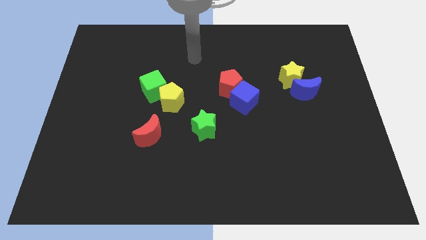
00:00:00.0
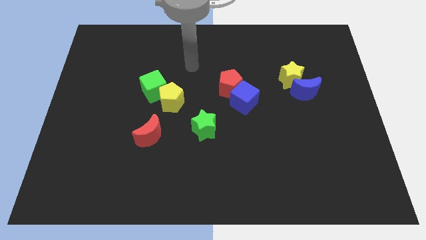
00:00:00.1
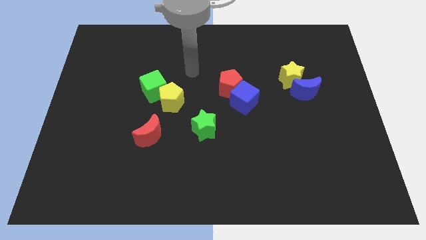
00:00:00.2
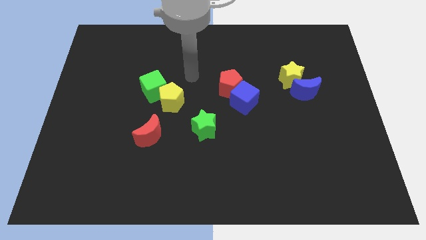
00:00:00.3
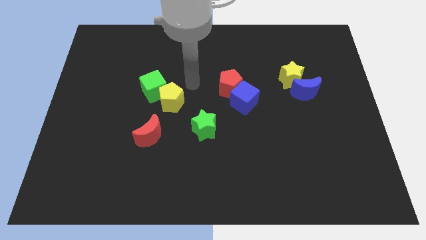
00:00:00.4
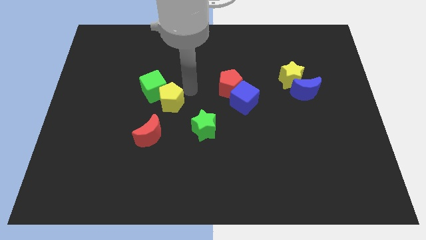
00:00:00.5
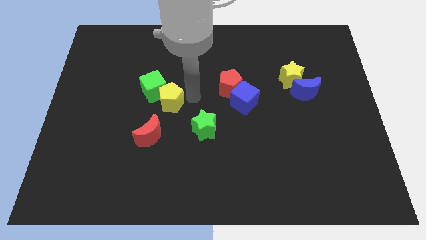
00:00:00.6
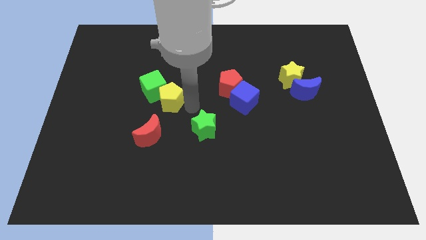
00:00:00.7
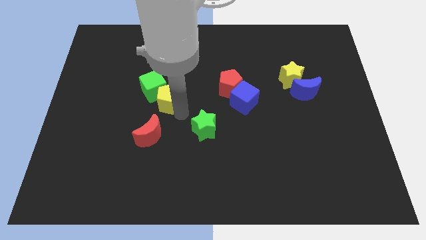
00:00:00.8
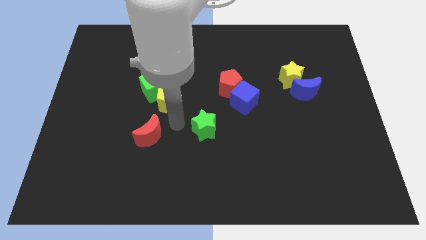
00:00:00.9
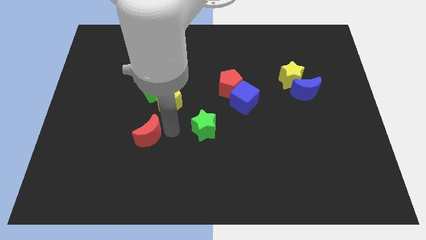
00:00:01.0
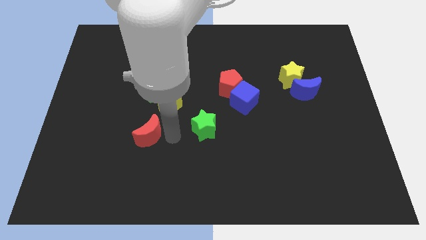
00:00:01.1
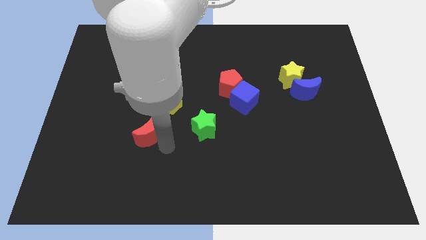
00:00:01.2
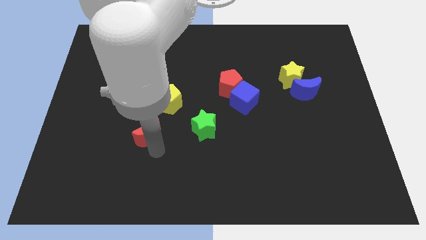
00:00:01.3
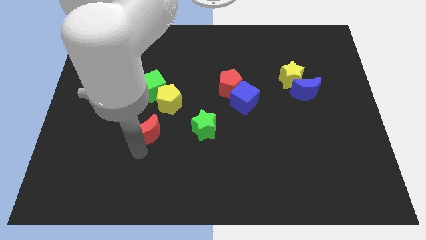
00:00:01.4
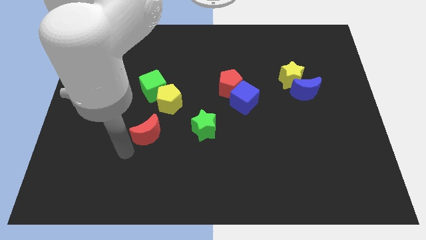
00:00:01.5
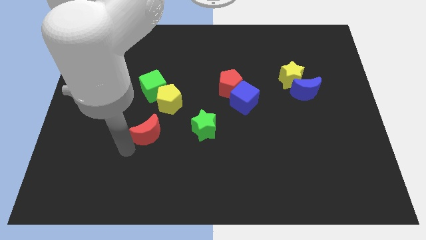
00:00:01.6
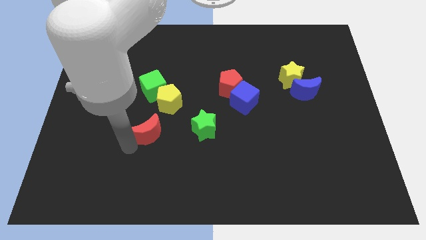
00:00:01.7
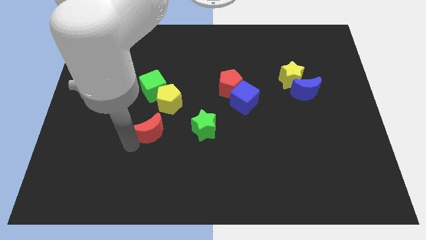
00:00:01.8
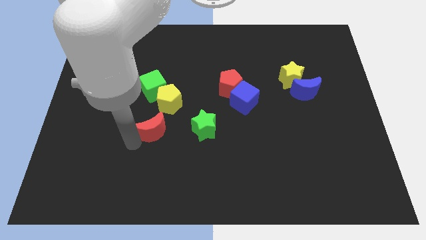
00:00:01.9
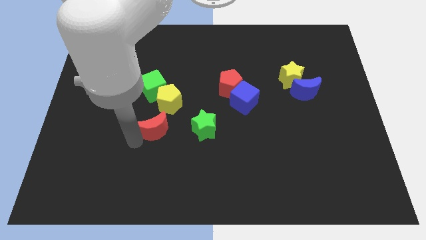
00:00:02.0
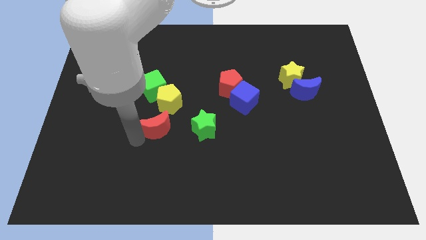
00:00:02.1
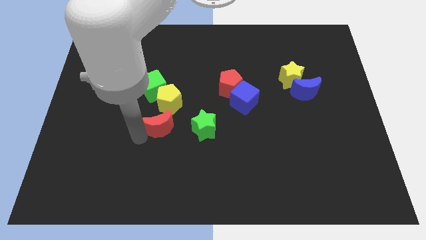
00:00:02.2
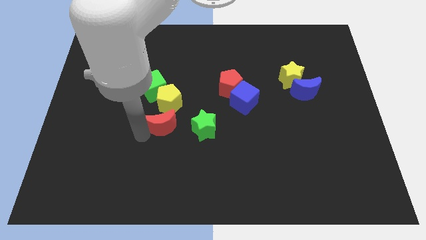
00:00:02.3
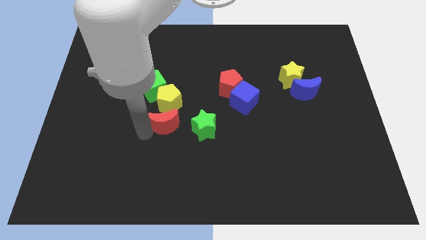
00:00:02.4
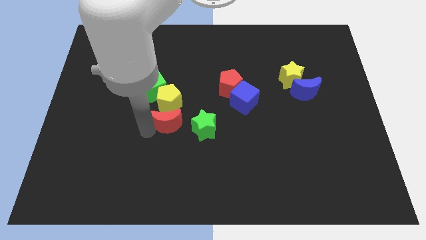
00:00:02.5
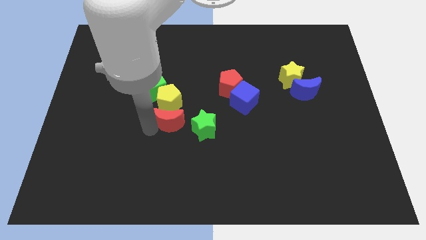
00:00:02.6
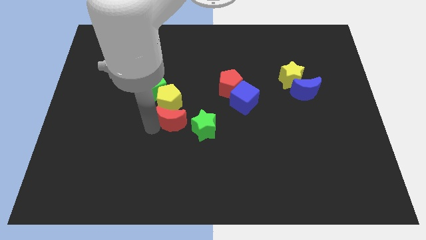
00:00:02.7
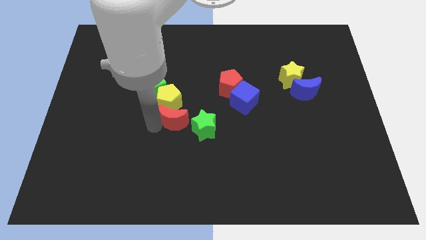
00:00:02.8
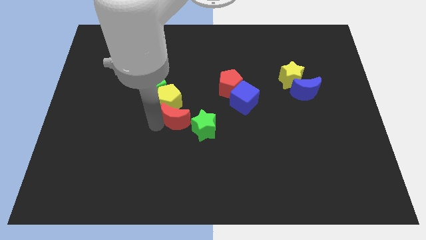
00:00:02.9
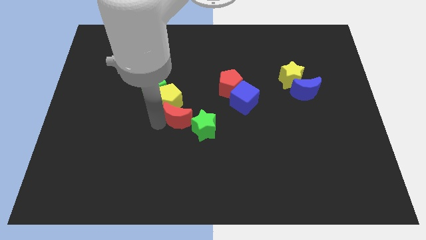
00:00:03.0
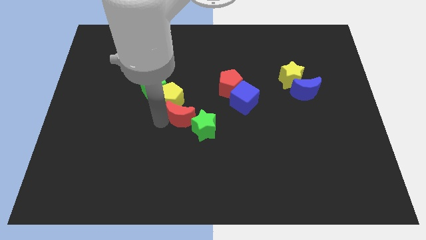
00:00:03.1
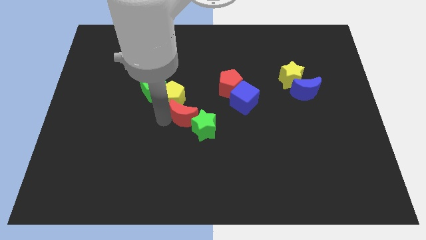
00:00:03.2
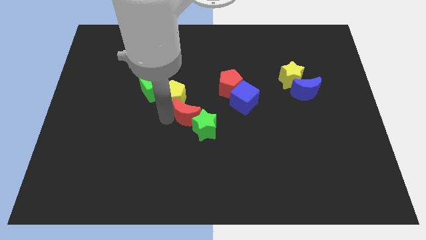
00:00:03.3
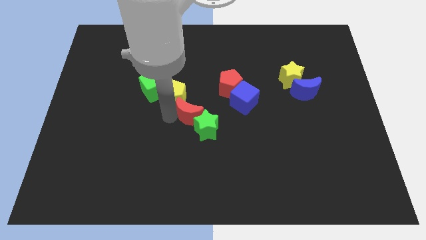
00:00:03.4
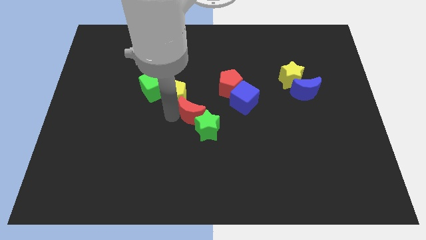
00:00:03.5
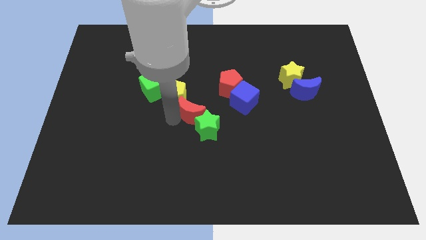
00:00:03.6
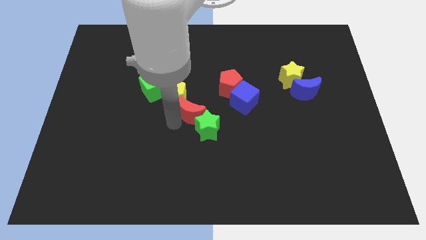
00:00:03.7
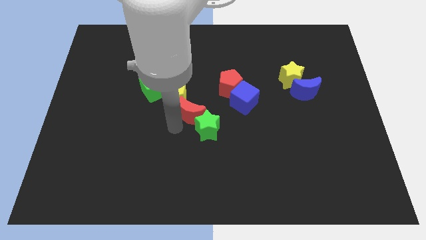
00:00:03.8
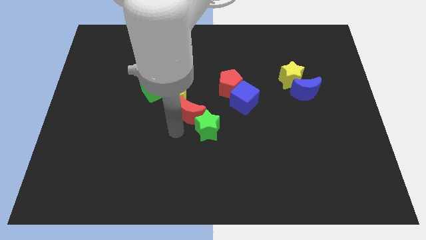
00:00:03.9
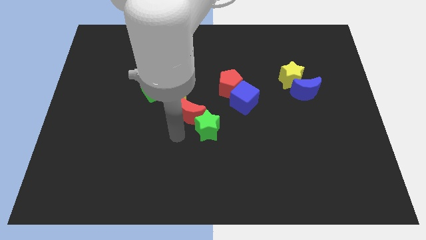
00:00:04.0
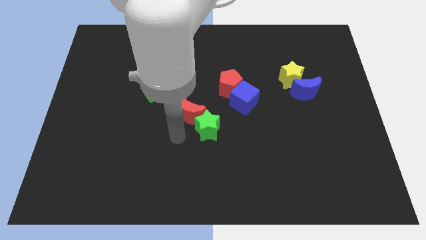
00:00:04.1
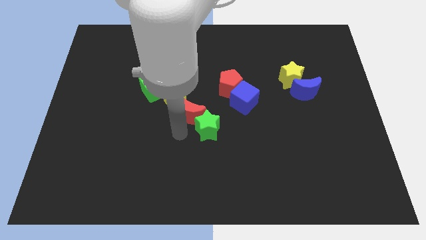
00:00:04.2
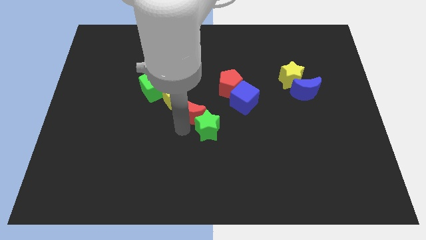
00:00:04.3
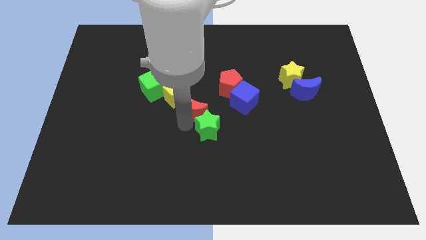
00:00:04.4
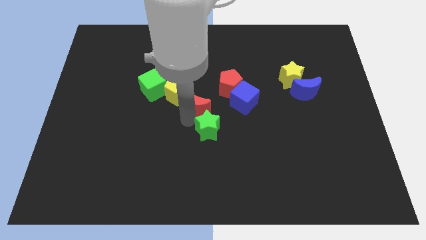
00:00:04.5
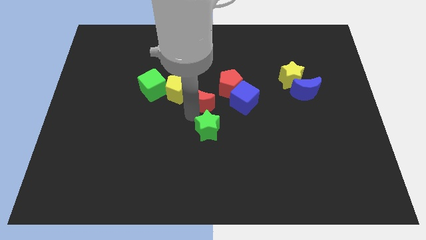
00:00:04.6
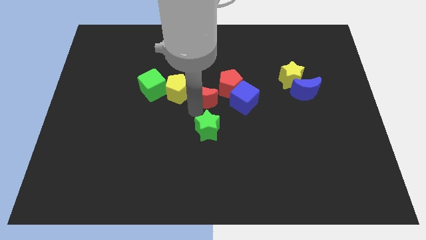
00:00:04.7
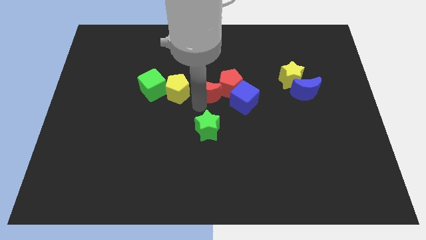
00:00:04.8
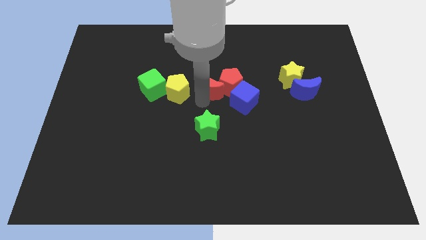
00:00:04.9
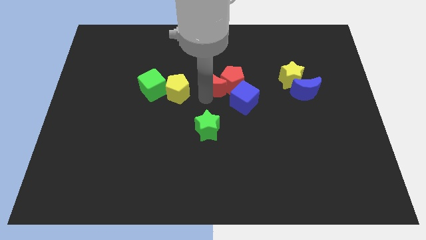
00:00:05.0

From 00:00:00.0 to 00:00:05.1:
push the red moon upwards and right diagonally

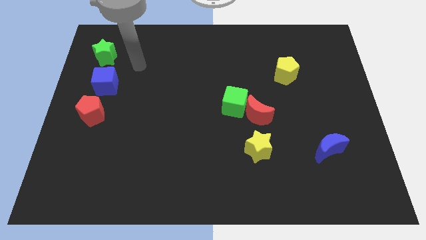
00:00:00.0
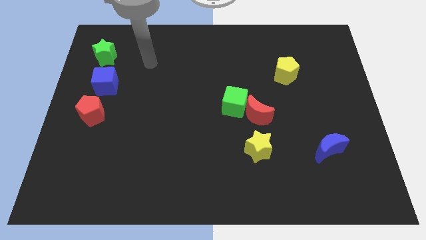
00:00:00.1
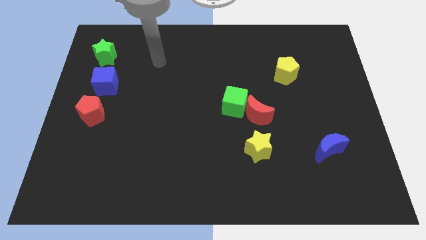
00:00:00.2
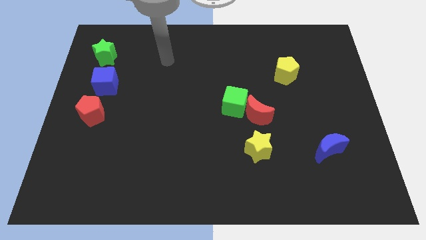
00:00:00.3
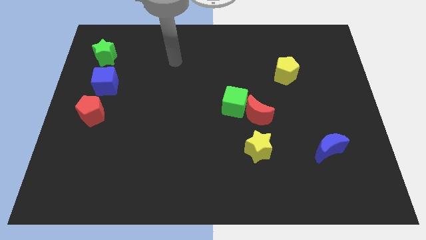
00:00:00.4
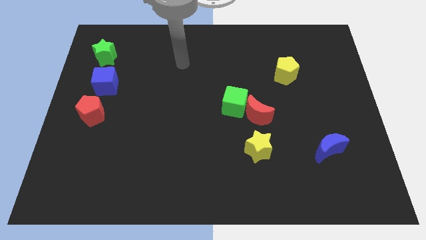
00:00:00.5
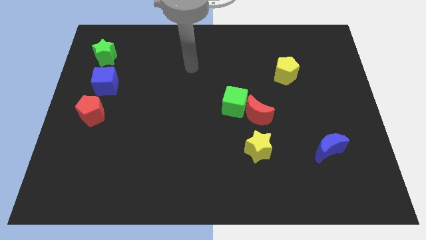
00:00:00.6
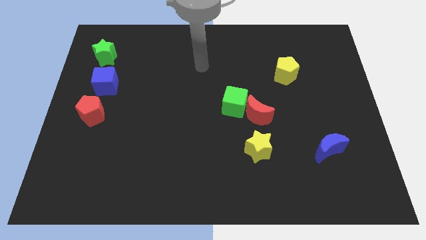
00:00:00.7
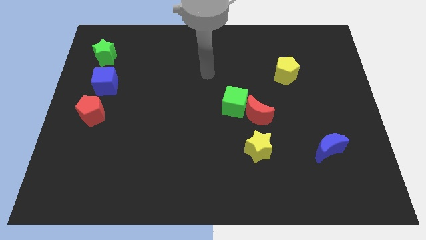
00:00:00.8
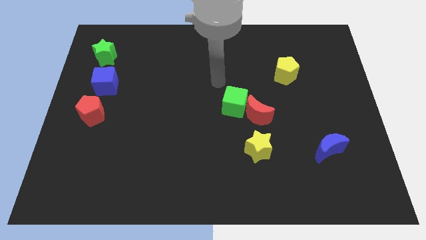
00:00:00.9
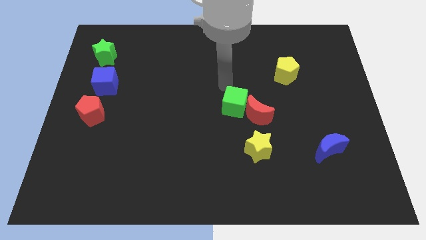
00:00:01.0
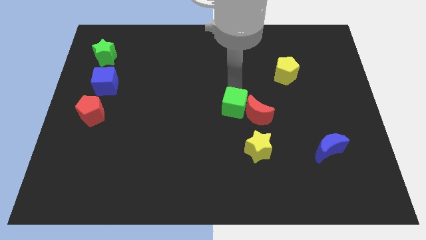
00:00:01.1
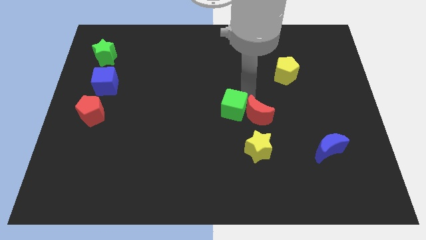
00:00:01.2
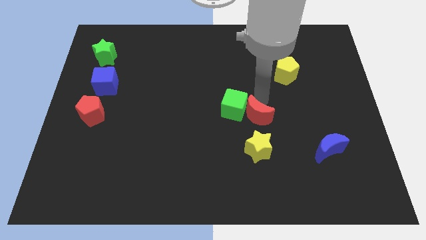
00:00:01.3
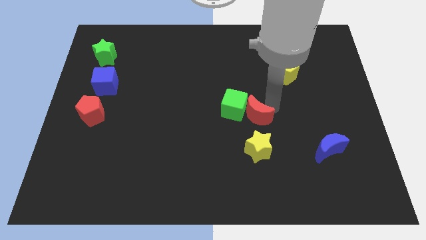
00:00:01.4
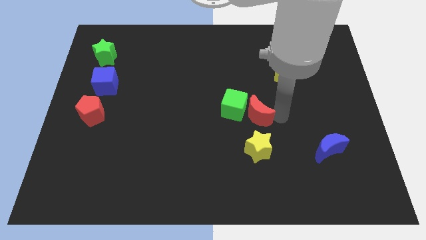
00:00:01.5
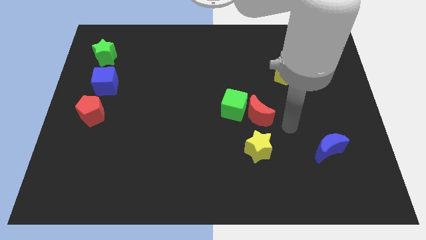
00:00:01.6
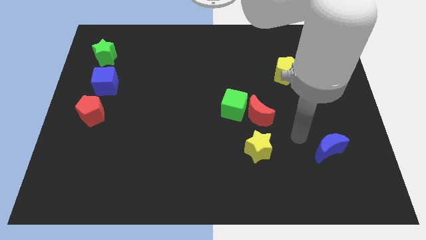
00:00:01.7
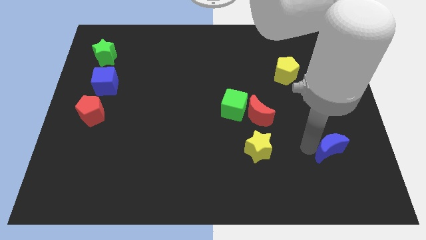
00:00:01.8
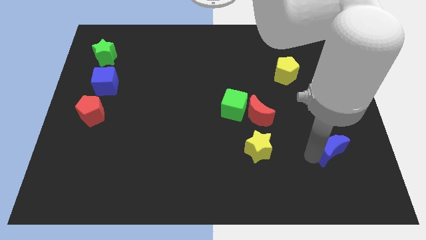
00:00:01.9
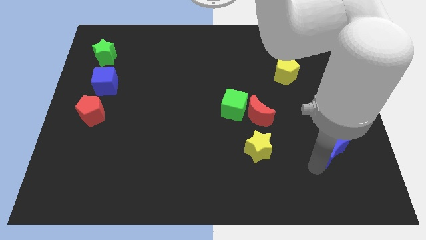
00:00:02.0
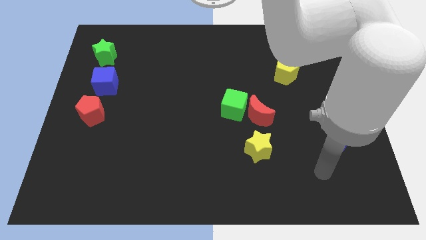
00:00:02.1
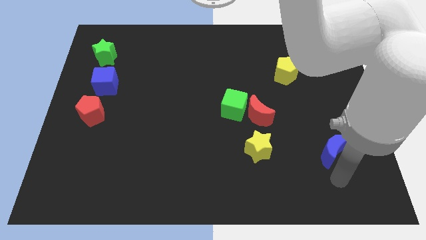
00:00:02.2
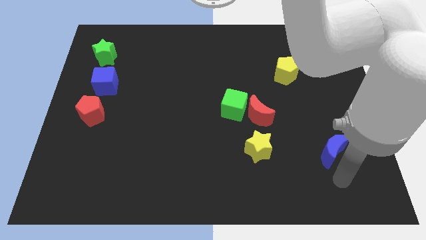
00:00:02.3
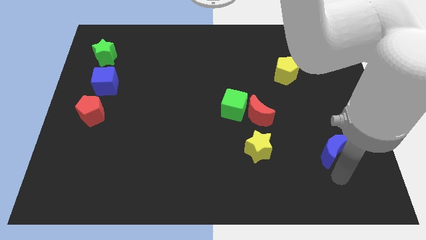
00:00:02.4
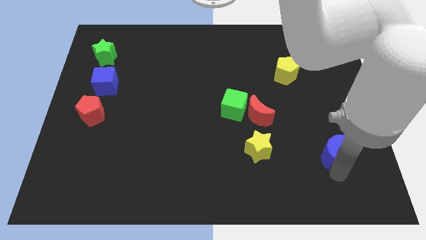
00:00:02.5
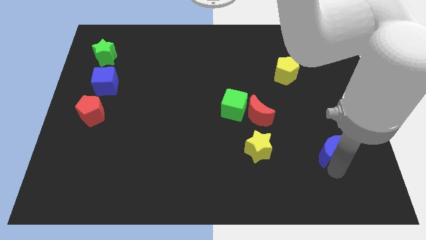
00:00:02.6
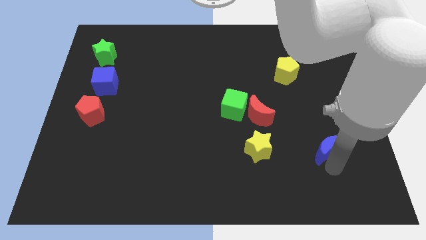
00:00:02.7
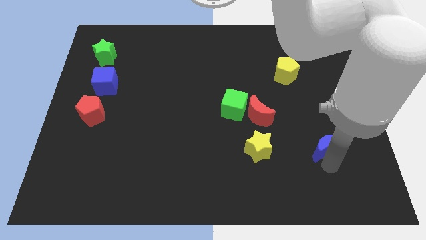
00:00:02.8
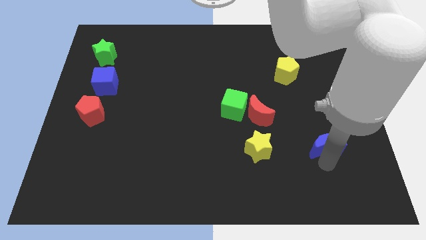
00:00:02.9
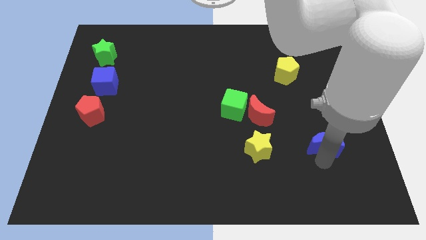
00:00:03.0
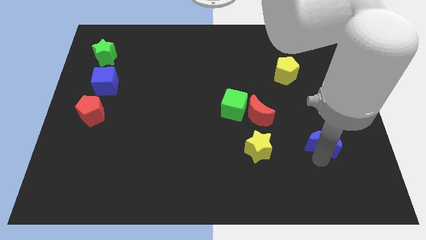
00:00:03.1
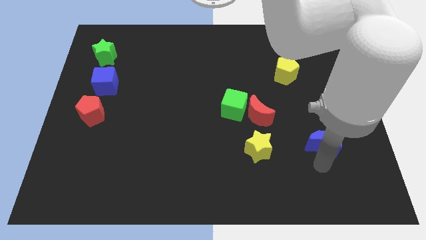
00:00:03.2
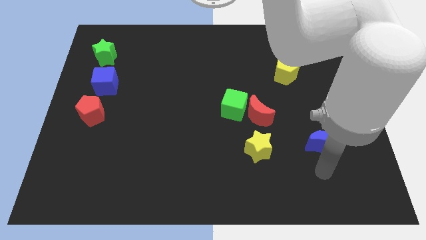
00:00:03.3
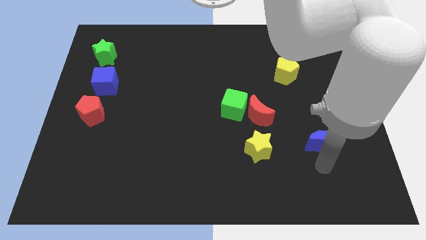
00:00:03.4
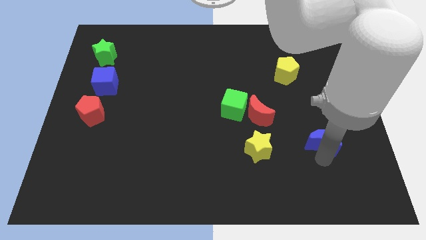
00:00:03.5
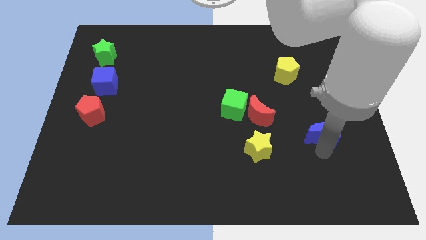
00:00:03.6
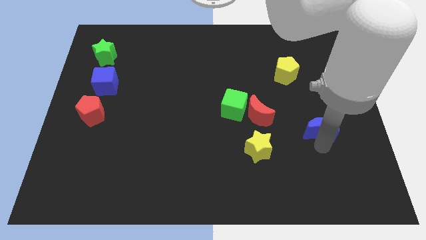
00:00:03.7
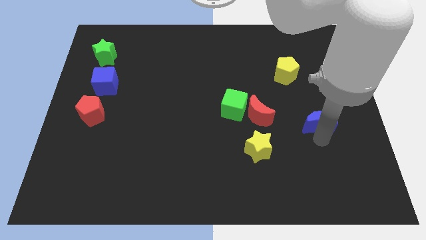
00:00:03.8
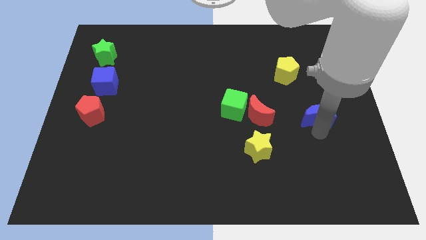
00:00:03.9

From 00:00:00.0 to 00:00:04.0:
move the blue moon a bit upwards
